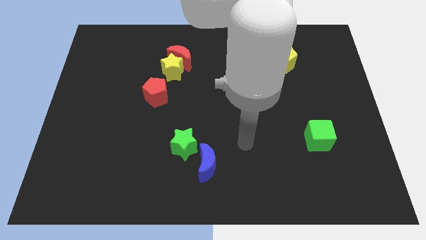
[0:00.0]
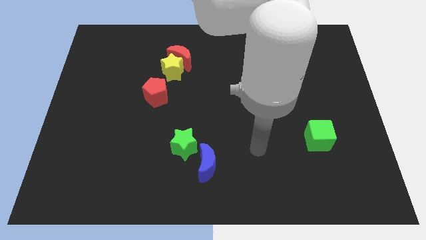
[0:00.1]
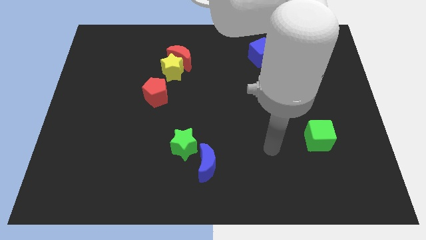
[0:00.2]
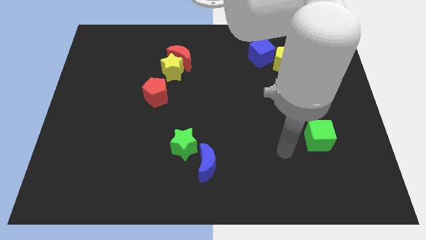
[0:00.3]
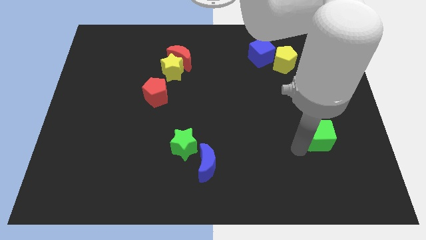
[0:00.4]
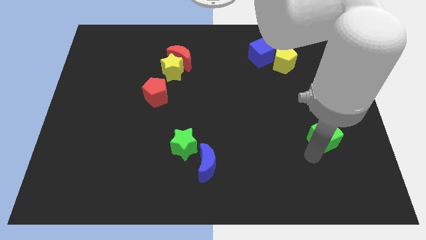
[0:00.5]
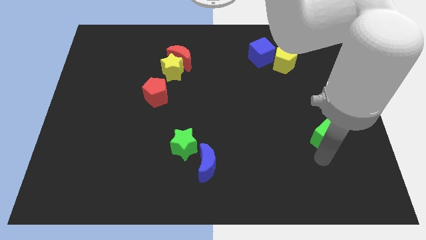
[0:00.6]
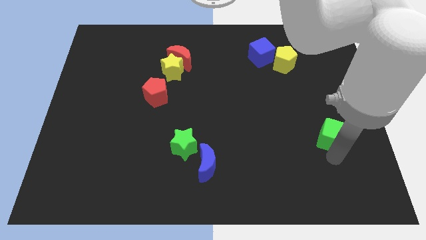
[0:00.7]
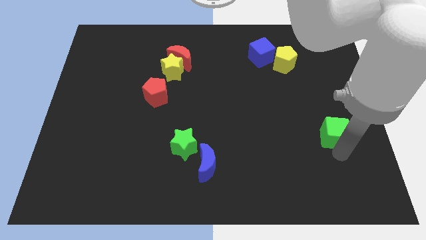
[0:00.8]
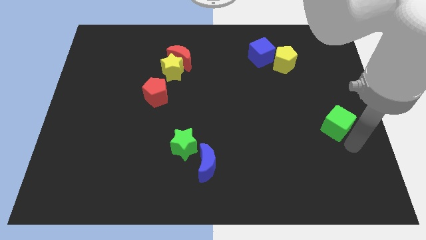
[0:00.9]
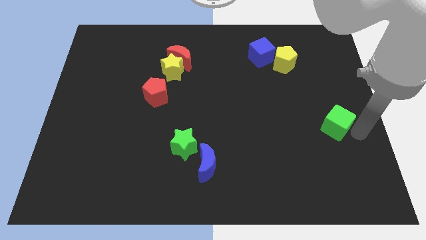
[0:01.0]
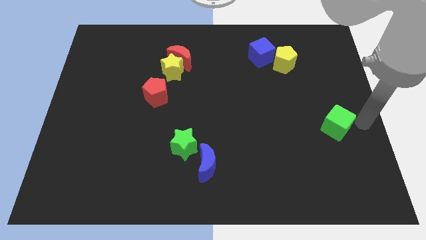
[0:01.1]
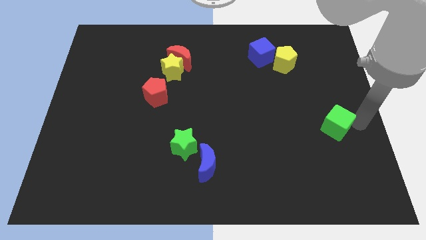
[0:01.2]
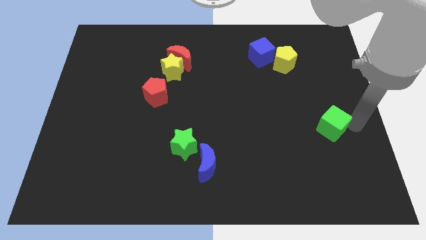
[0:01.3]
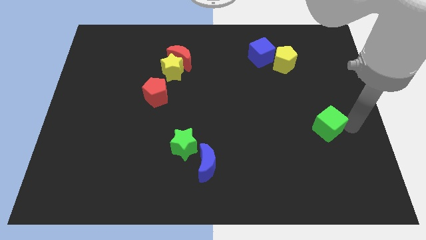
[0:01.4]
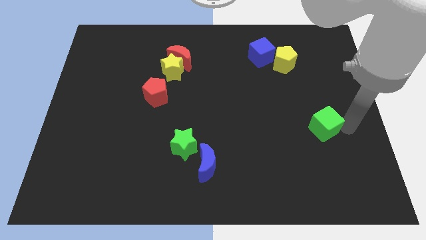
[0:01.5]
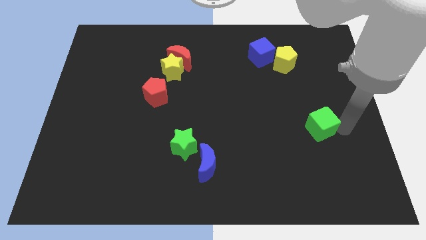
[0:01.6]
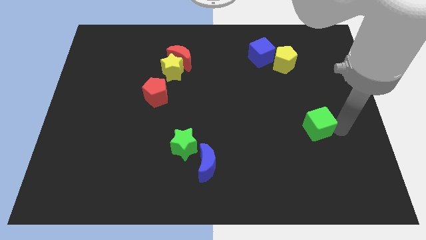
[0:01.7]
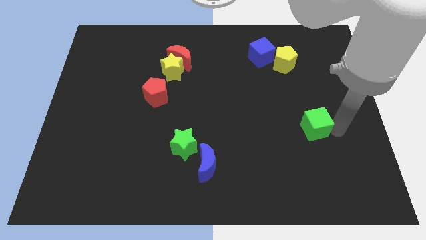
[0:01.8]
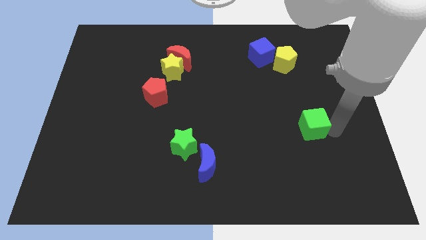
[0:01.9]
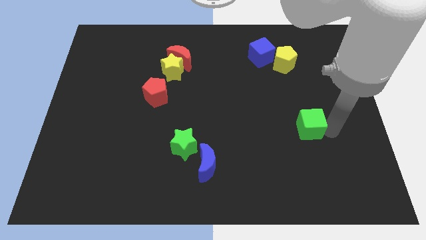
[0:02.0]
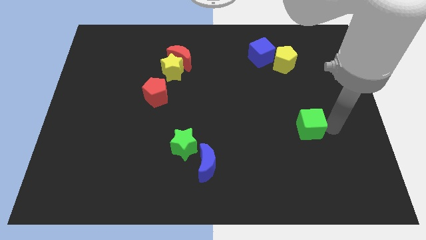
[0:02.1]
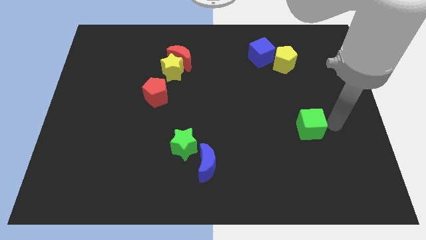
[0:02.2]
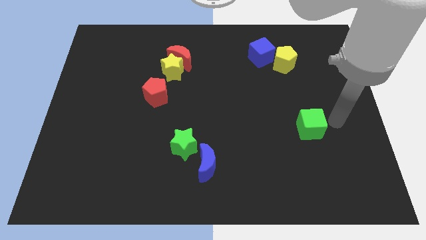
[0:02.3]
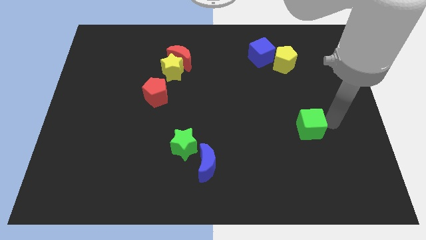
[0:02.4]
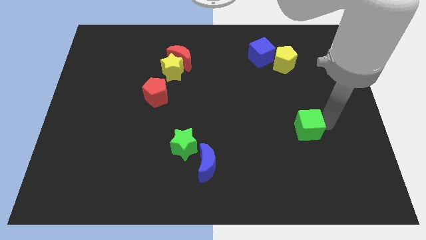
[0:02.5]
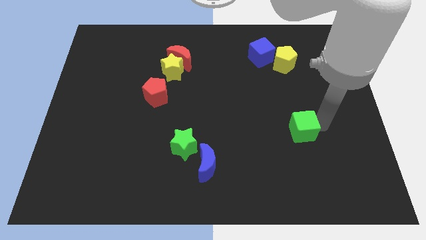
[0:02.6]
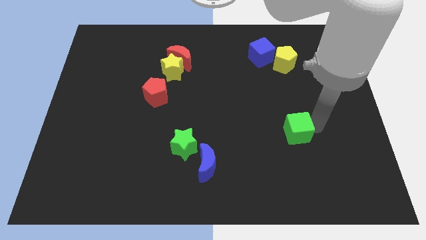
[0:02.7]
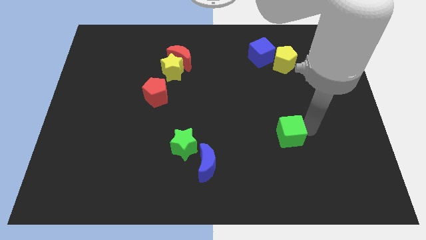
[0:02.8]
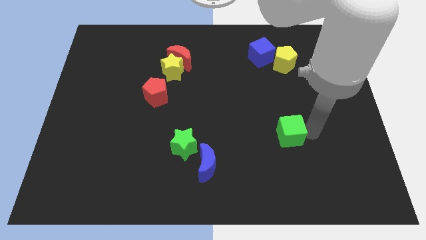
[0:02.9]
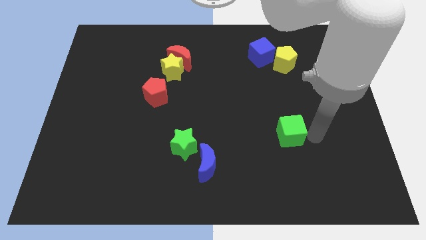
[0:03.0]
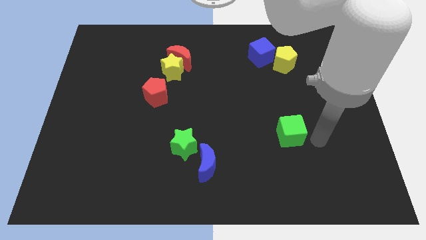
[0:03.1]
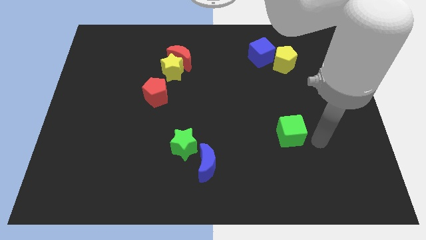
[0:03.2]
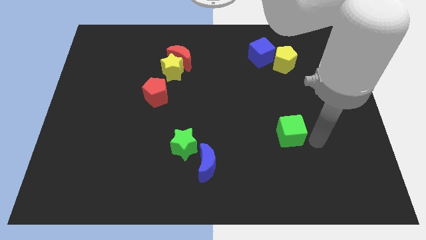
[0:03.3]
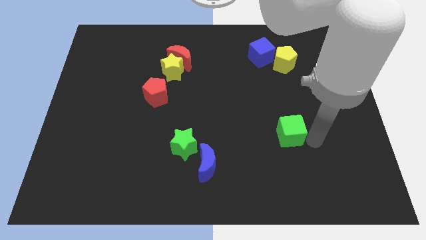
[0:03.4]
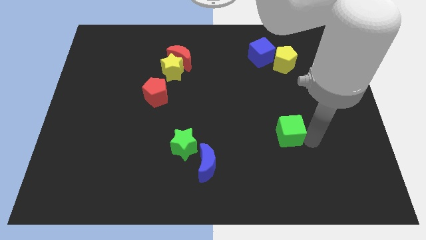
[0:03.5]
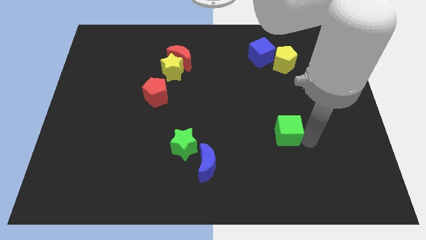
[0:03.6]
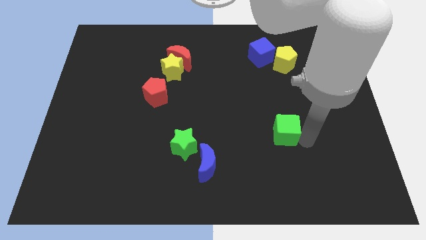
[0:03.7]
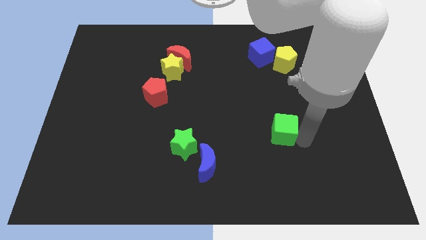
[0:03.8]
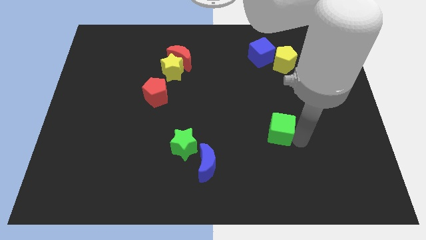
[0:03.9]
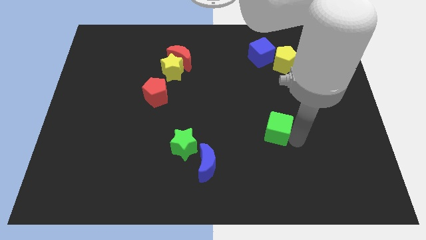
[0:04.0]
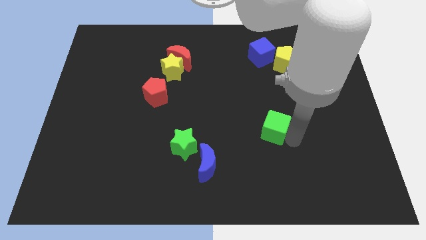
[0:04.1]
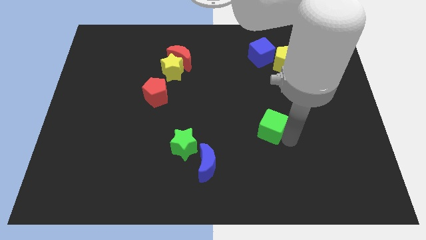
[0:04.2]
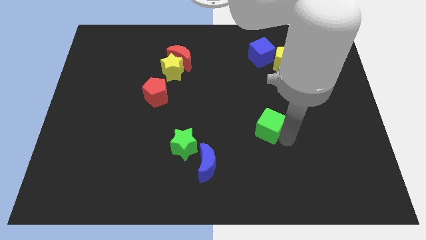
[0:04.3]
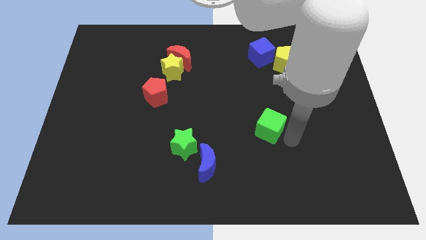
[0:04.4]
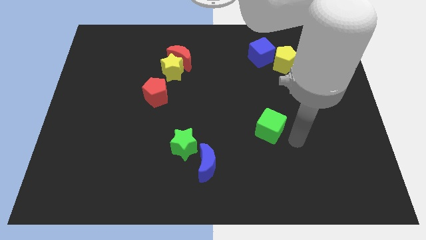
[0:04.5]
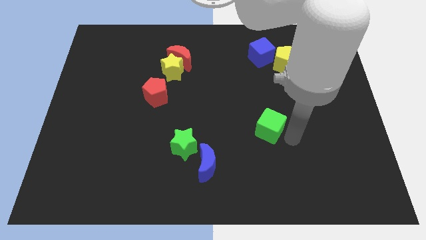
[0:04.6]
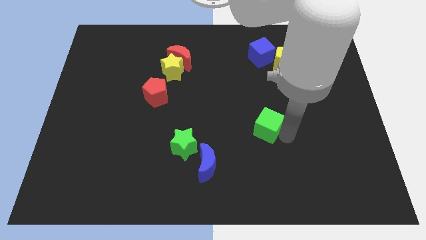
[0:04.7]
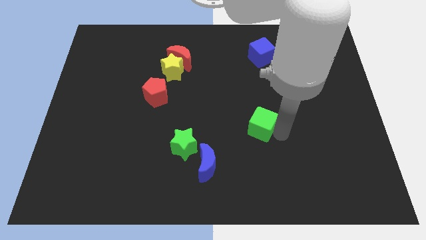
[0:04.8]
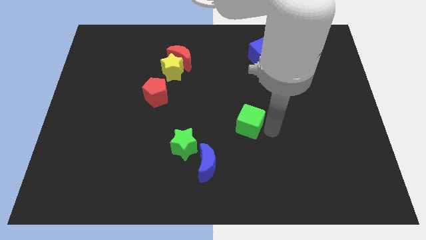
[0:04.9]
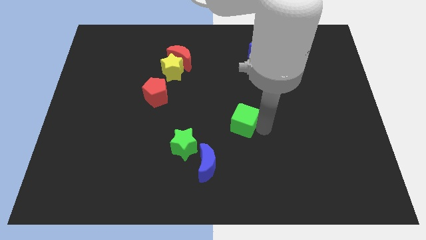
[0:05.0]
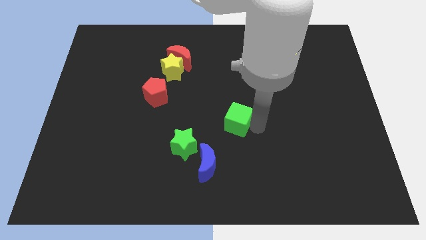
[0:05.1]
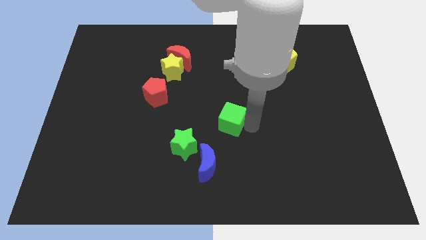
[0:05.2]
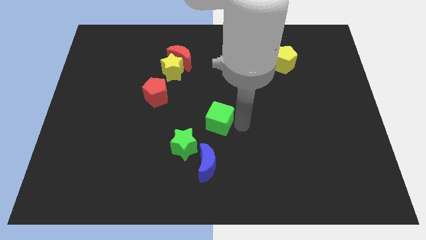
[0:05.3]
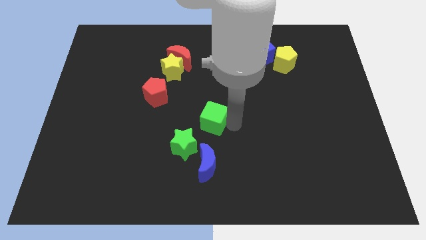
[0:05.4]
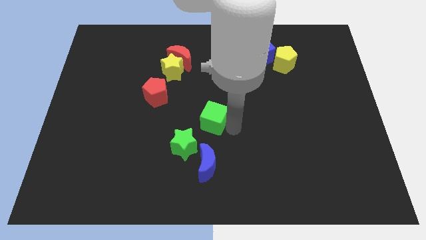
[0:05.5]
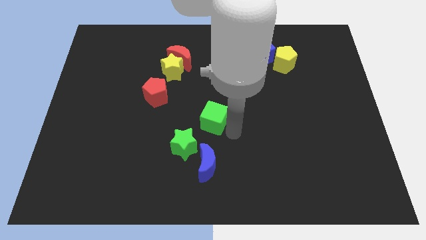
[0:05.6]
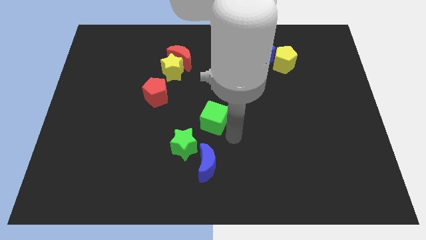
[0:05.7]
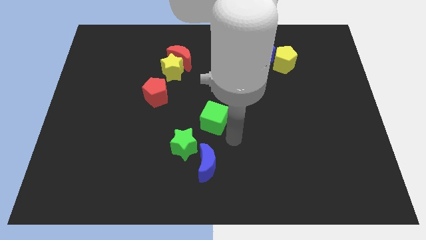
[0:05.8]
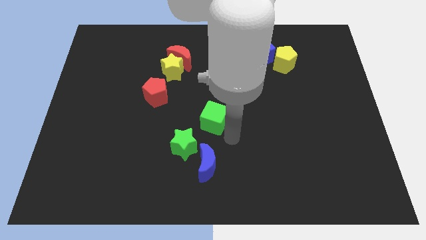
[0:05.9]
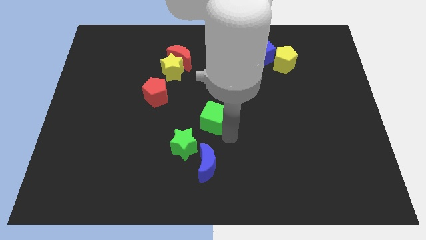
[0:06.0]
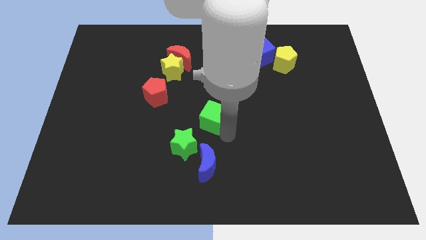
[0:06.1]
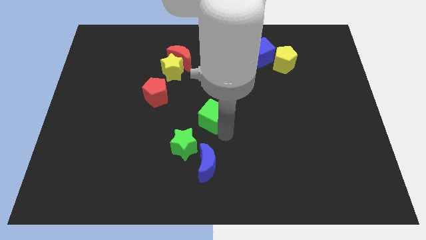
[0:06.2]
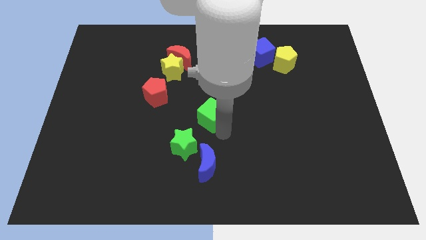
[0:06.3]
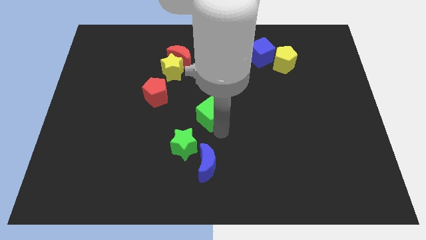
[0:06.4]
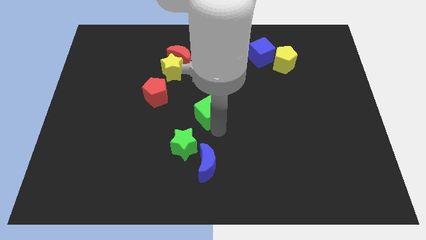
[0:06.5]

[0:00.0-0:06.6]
push the green cube above the green star
